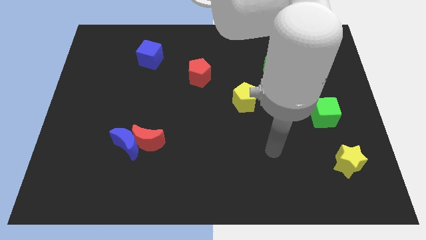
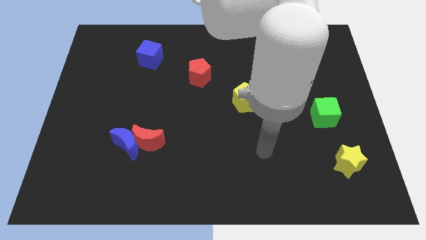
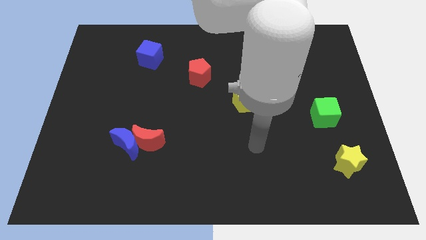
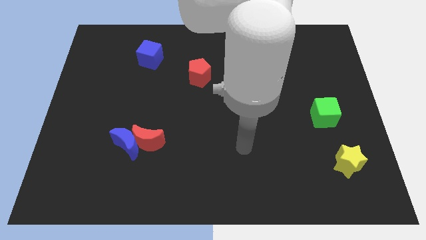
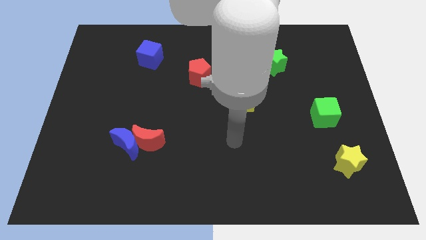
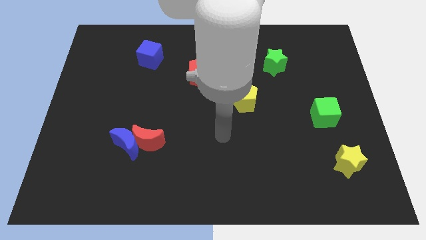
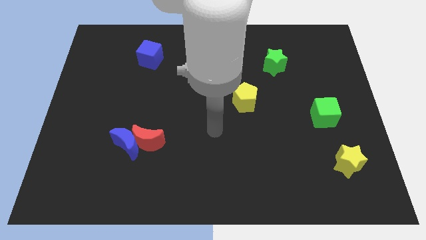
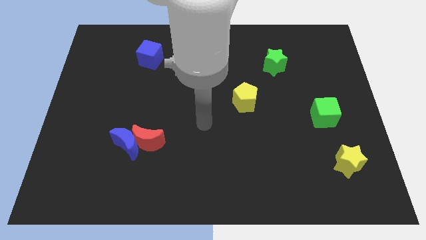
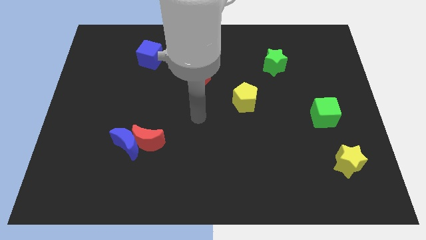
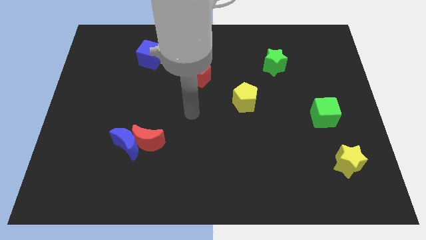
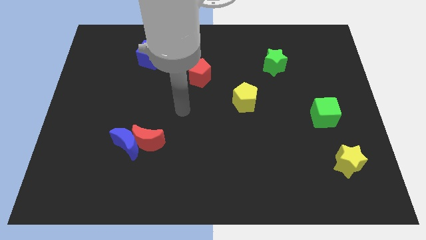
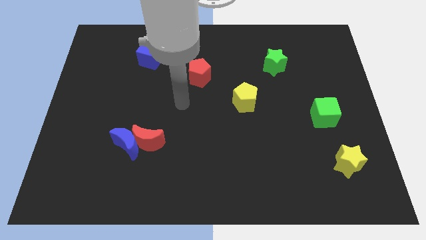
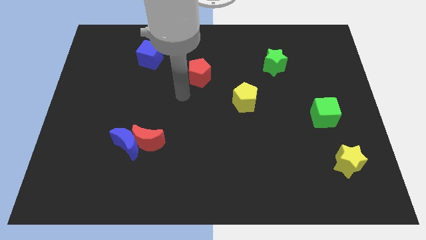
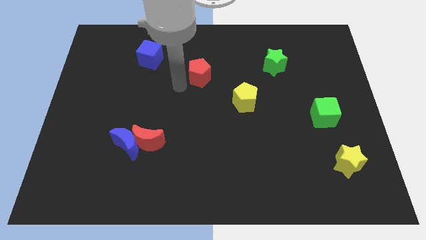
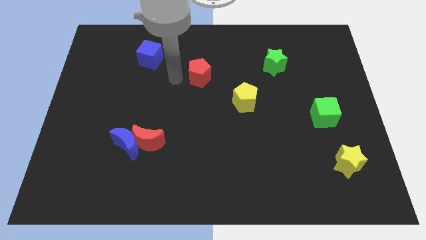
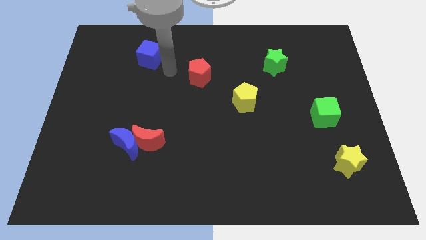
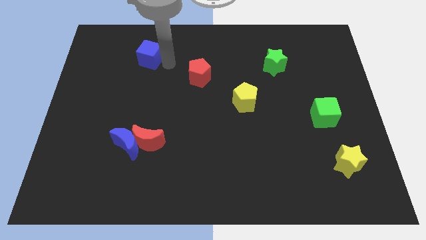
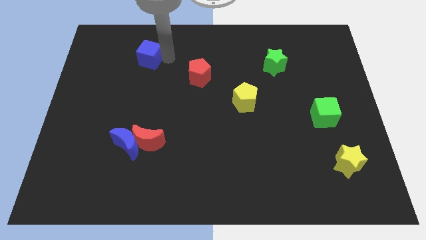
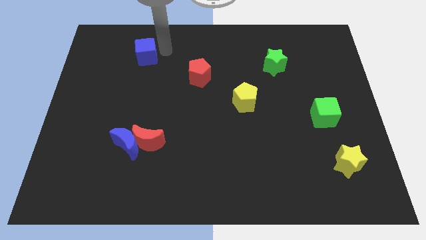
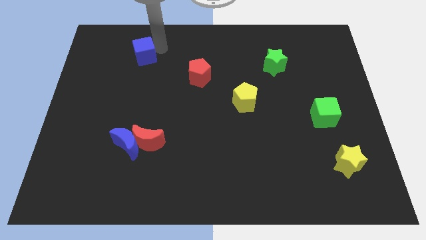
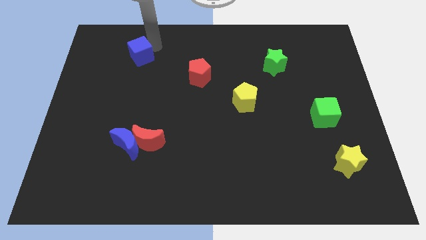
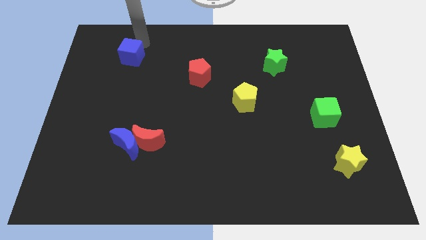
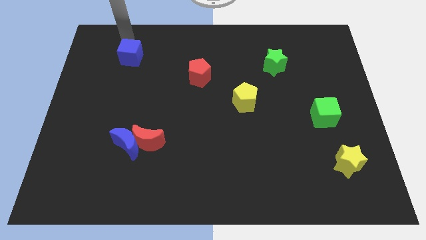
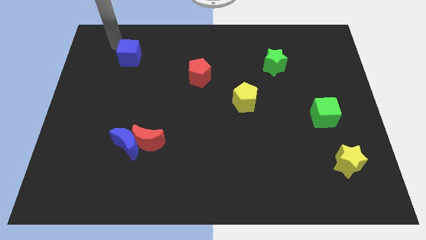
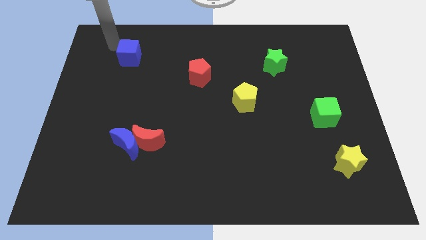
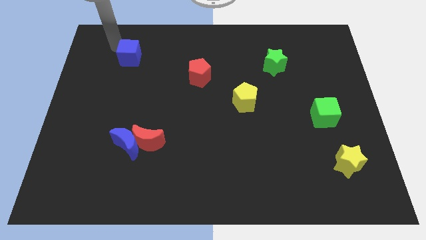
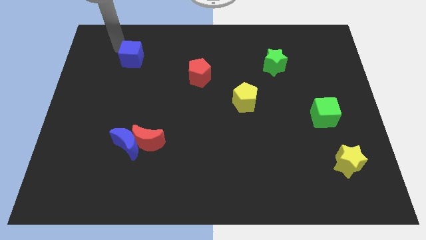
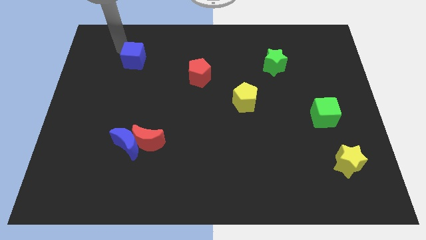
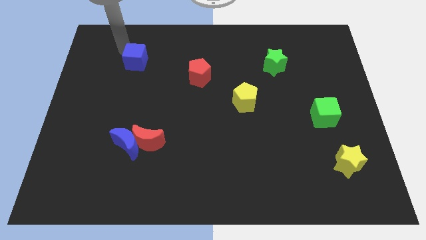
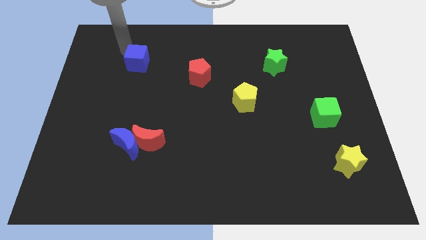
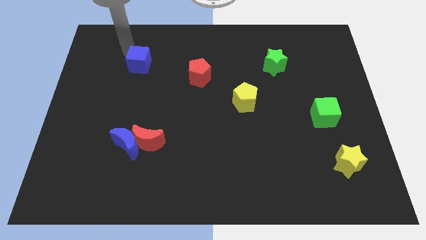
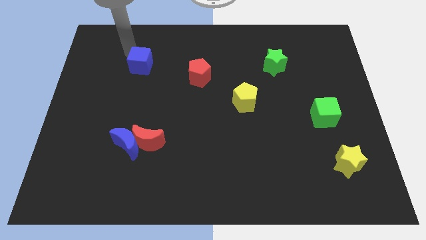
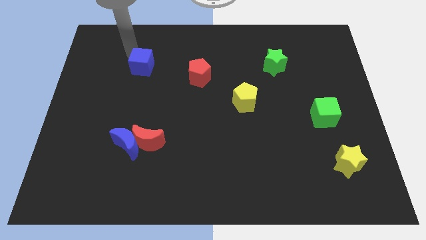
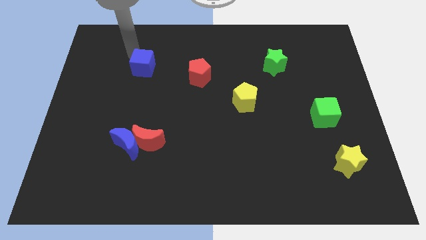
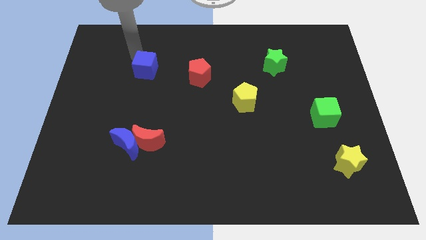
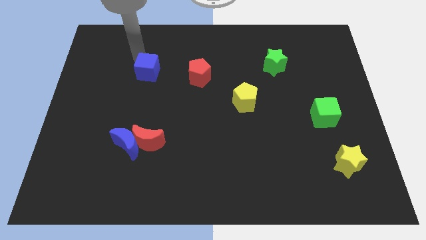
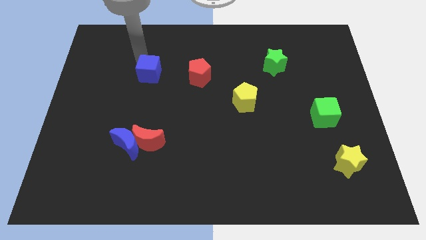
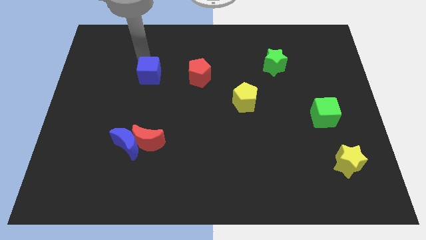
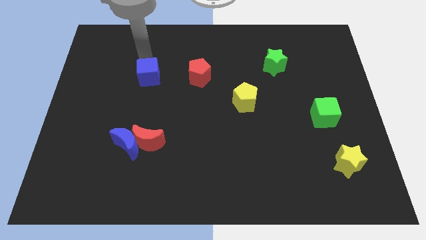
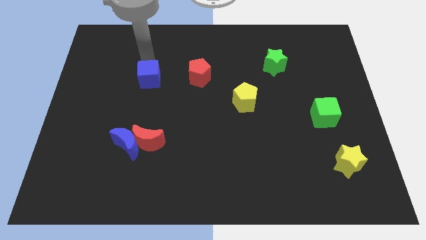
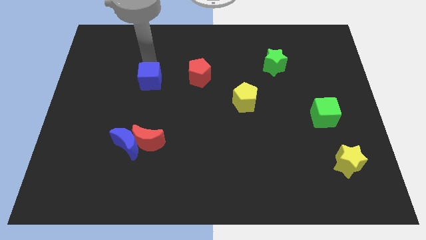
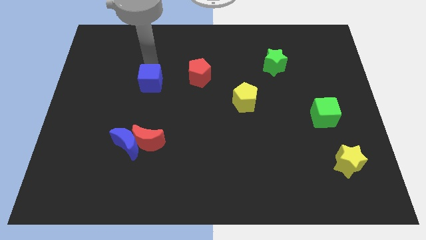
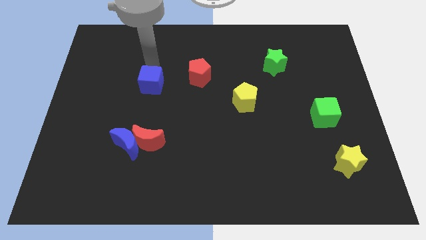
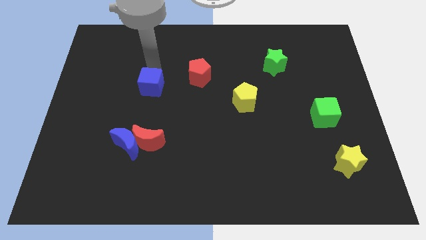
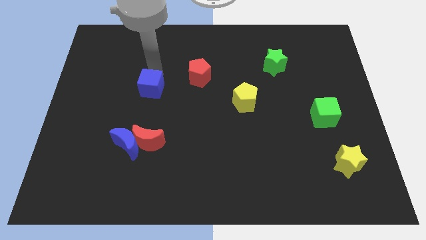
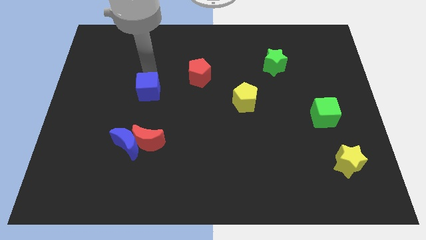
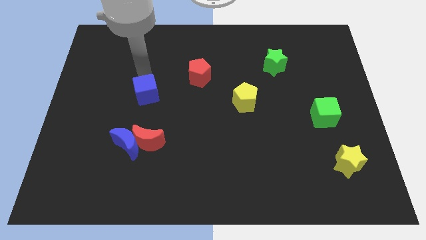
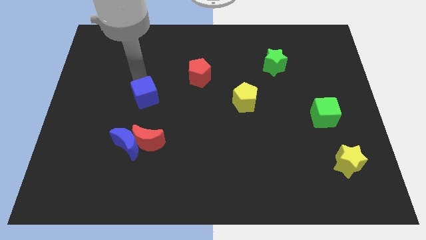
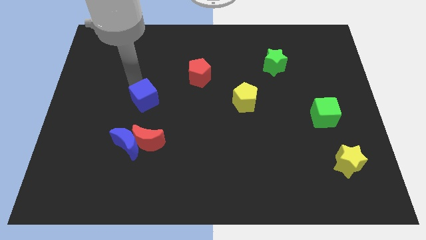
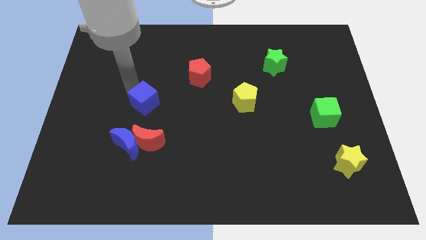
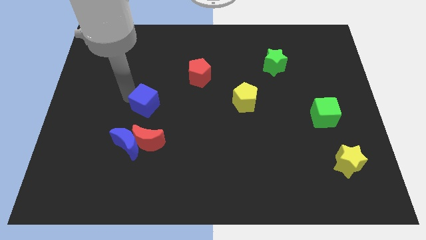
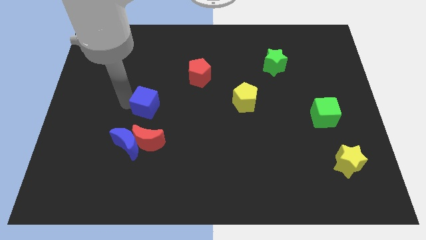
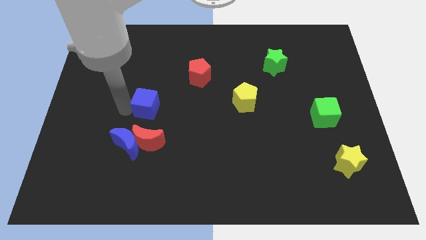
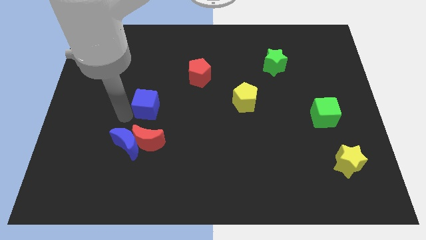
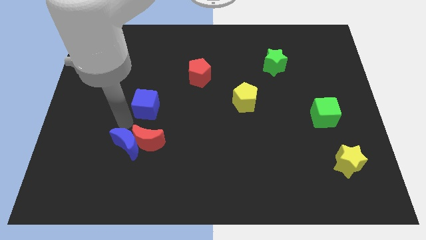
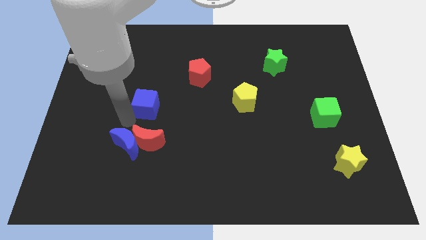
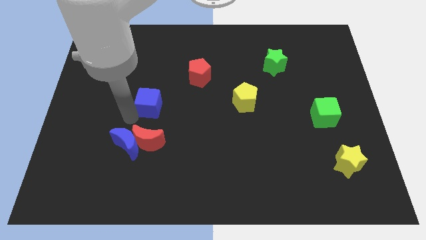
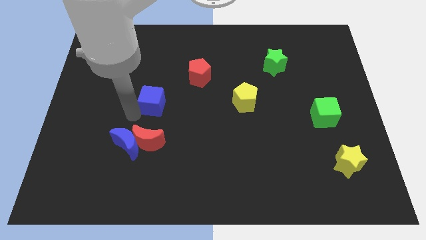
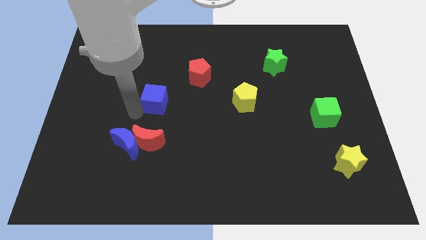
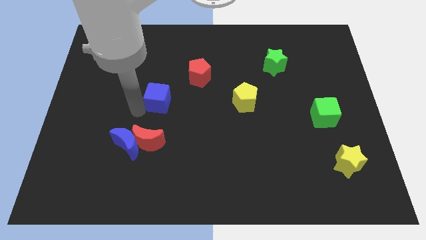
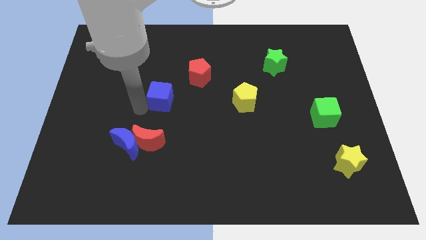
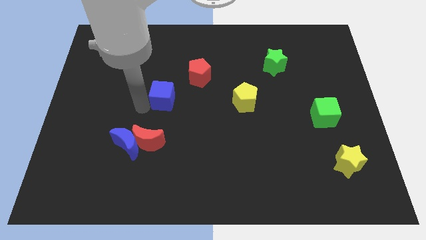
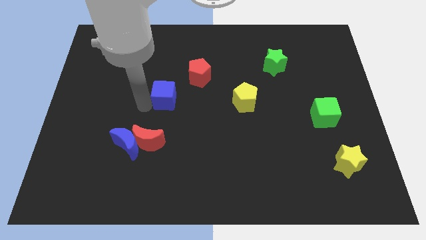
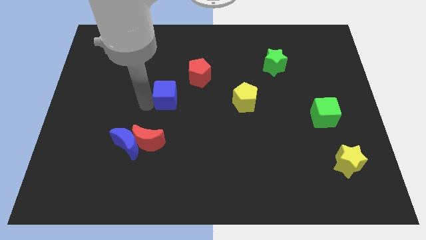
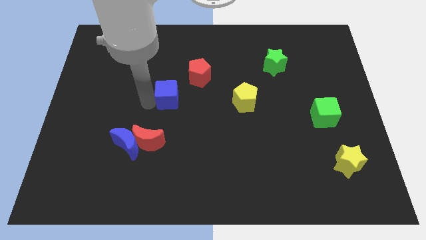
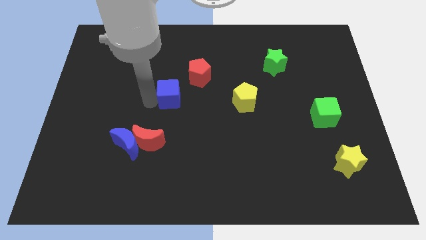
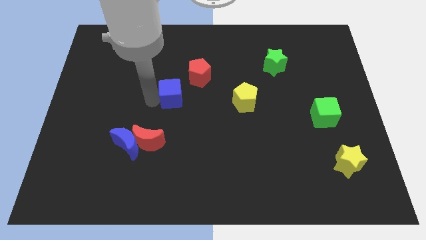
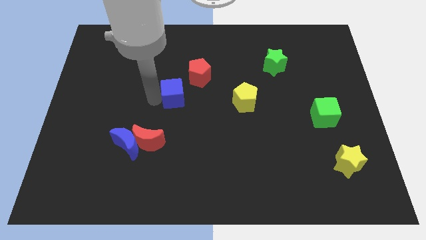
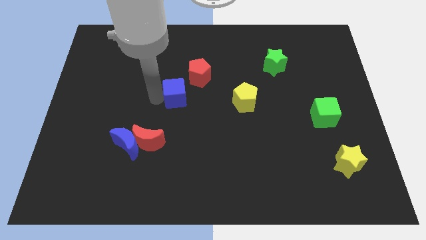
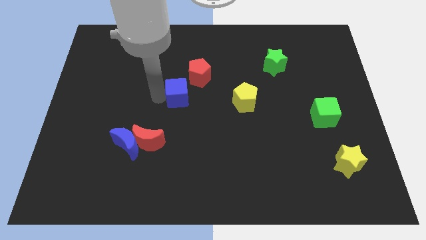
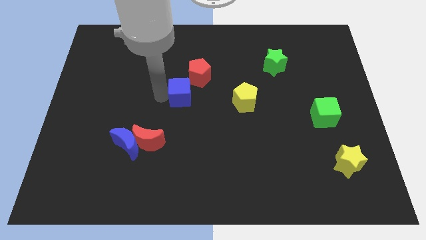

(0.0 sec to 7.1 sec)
move the blue cube to the bottom side of the red pentagon
